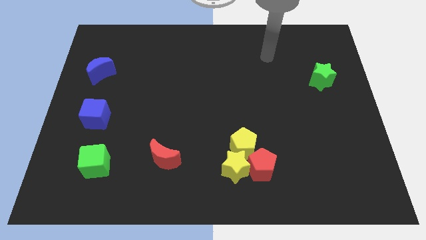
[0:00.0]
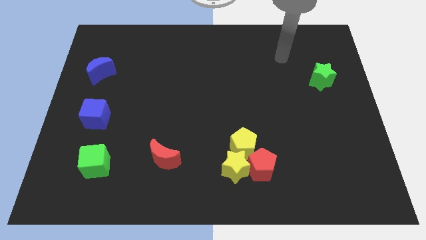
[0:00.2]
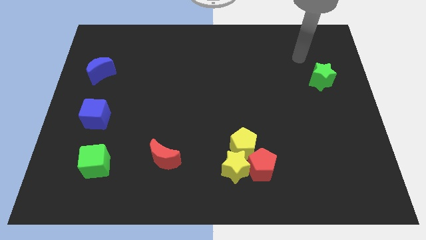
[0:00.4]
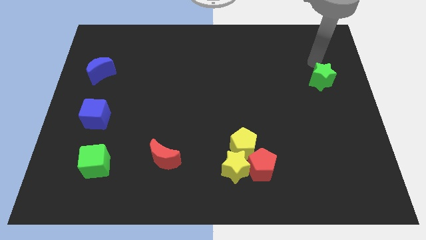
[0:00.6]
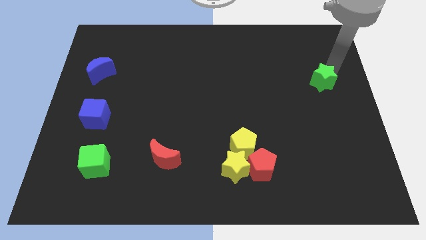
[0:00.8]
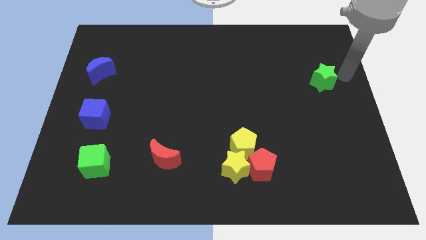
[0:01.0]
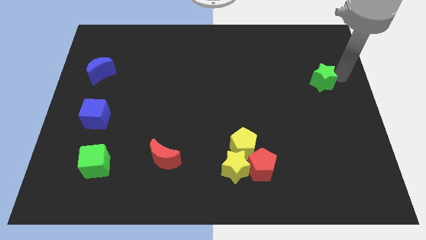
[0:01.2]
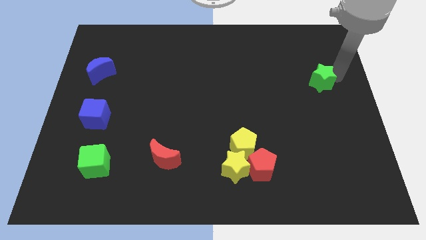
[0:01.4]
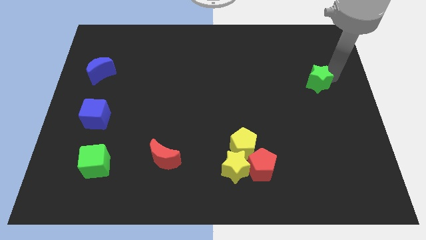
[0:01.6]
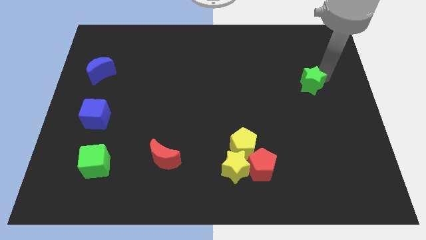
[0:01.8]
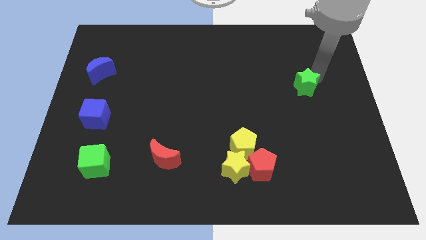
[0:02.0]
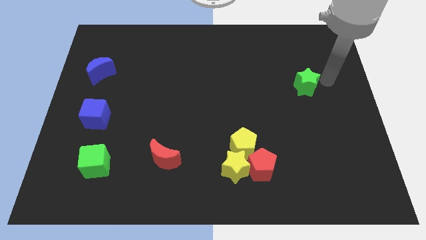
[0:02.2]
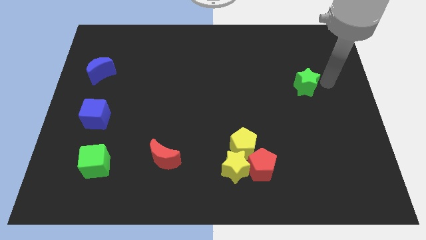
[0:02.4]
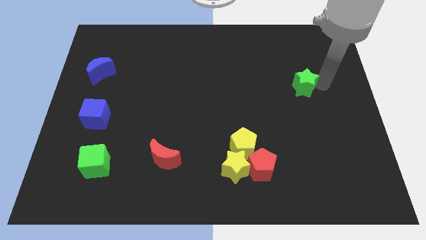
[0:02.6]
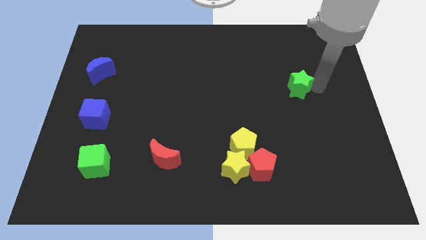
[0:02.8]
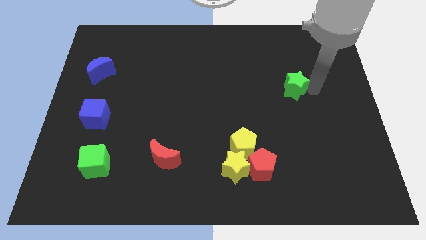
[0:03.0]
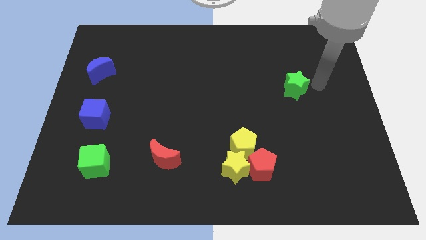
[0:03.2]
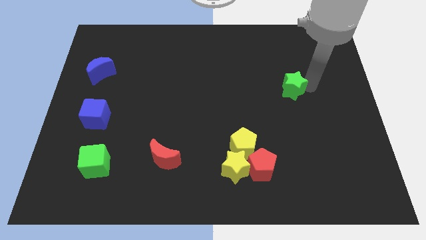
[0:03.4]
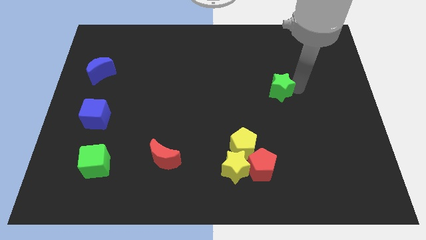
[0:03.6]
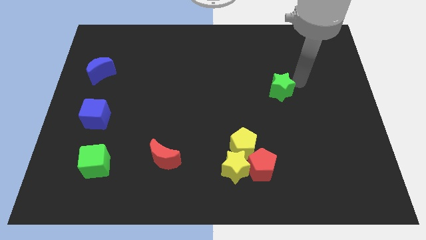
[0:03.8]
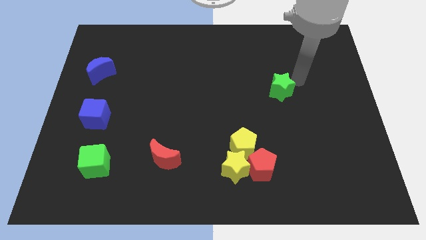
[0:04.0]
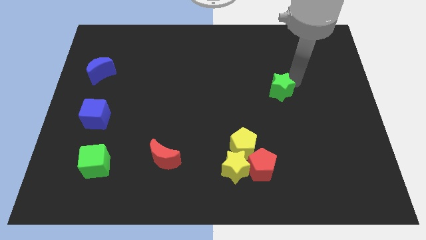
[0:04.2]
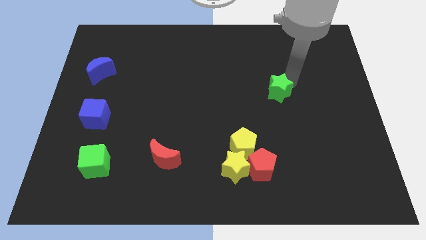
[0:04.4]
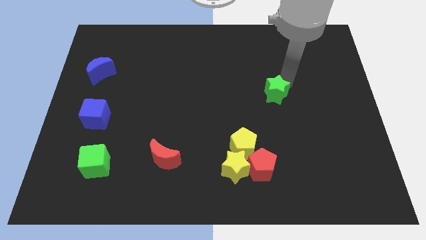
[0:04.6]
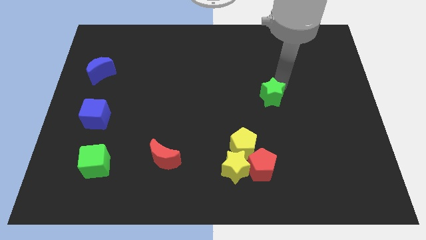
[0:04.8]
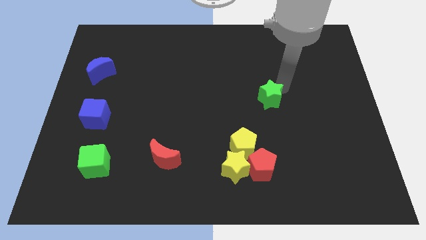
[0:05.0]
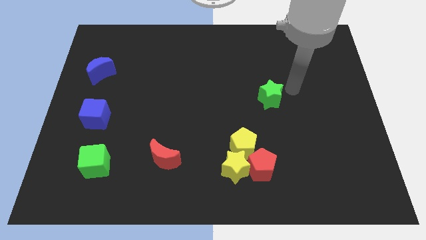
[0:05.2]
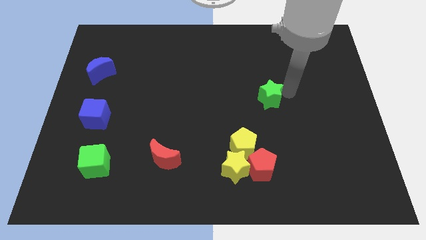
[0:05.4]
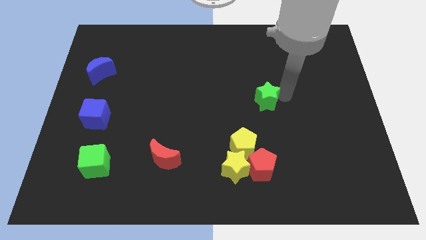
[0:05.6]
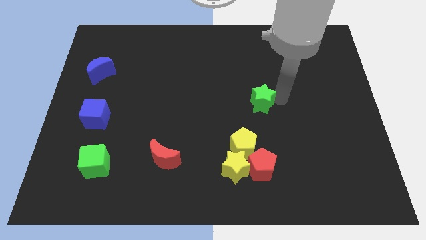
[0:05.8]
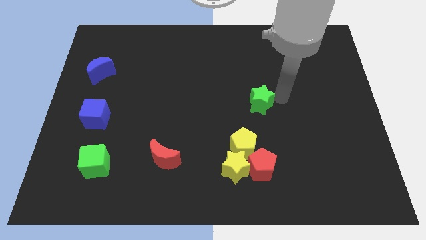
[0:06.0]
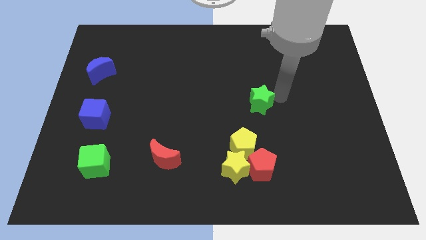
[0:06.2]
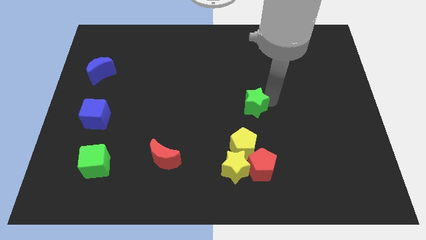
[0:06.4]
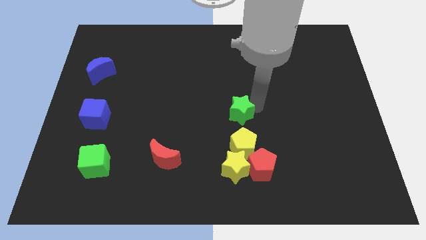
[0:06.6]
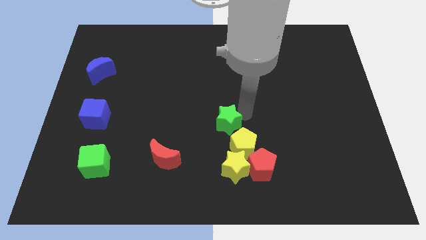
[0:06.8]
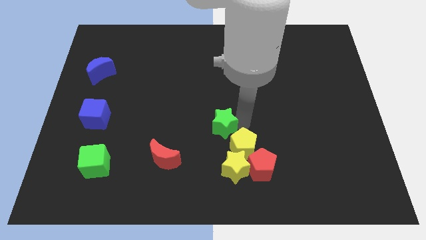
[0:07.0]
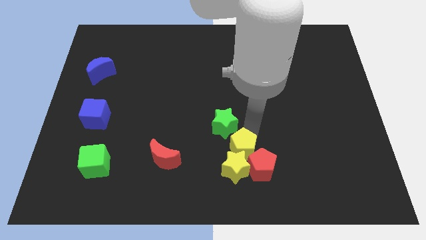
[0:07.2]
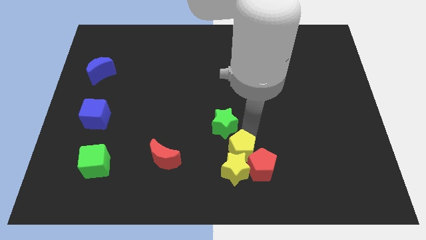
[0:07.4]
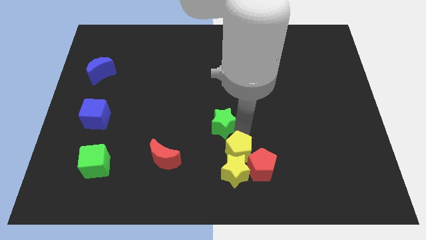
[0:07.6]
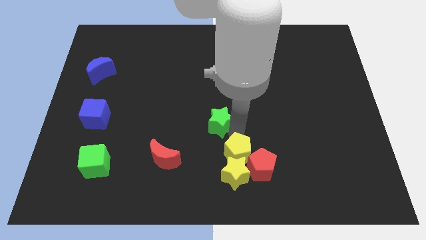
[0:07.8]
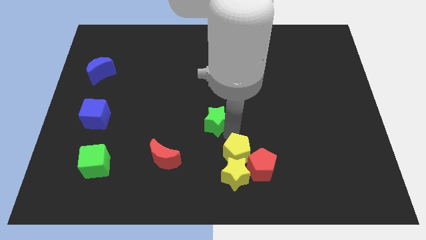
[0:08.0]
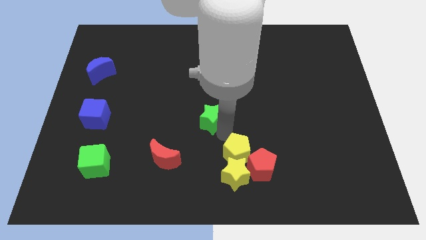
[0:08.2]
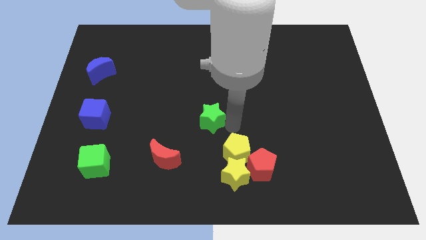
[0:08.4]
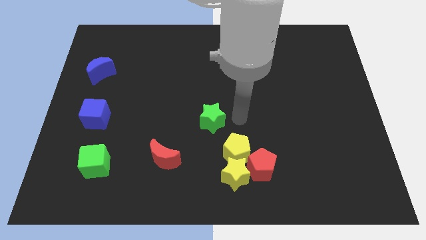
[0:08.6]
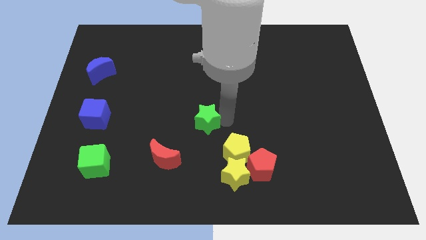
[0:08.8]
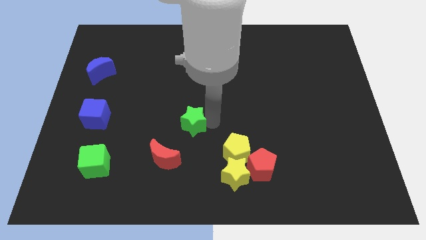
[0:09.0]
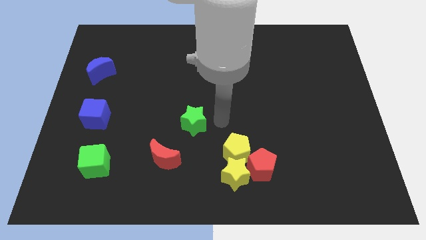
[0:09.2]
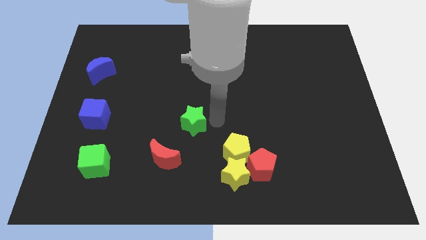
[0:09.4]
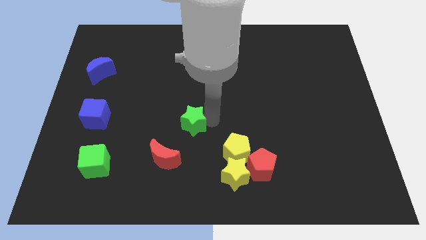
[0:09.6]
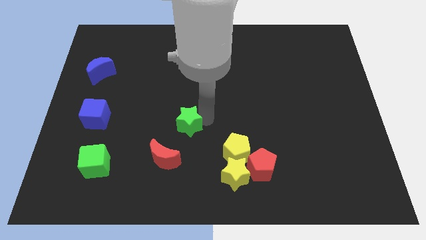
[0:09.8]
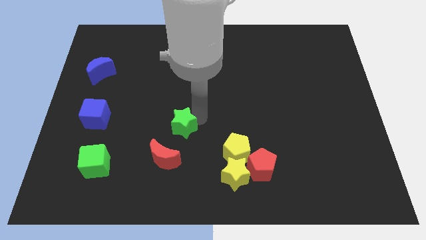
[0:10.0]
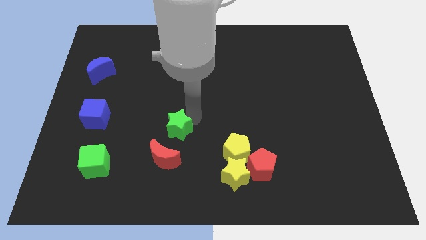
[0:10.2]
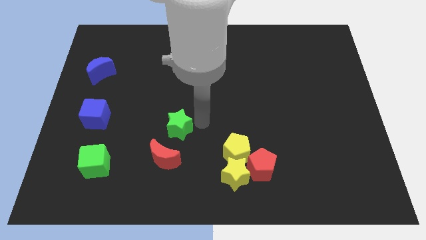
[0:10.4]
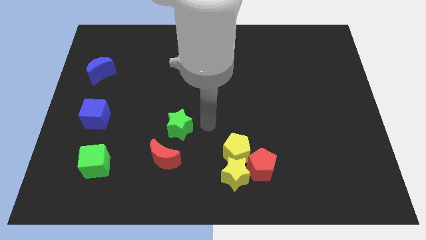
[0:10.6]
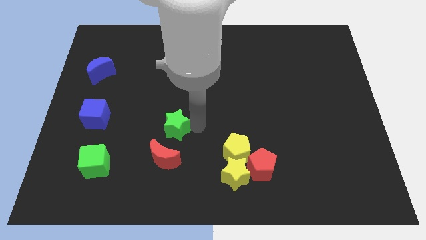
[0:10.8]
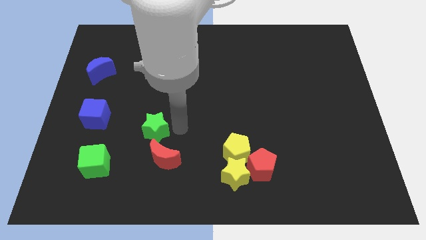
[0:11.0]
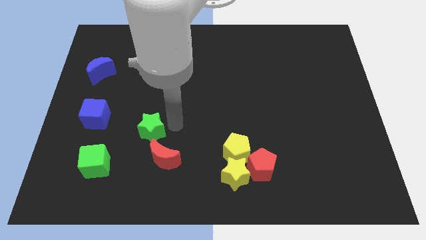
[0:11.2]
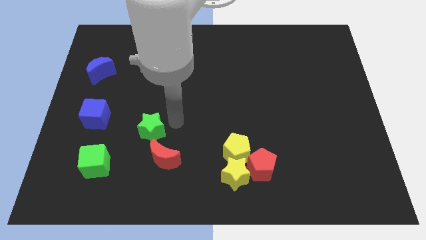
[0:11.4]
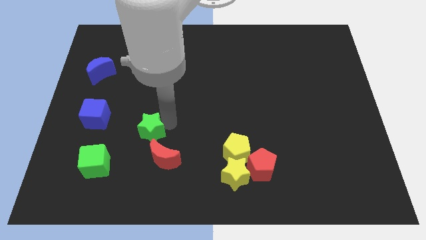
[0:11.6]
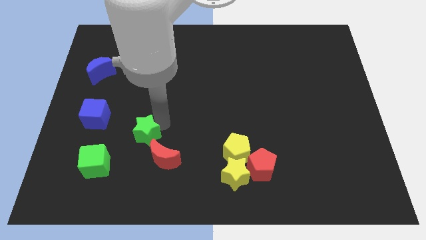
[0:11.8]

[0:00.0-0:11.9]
move the green star diagonally up and to the right of the green cube

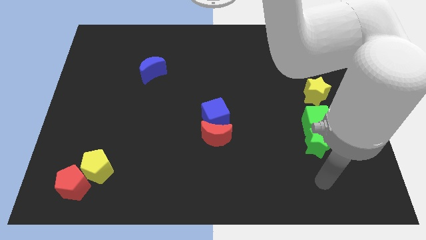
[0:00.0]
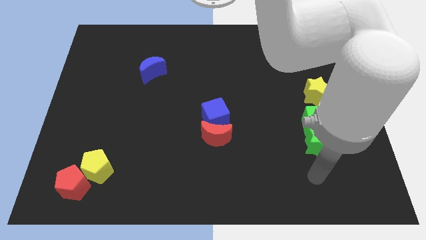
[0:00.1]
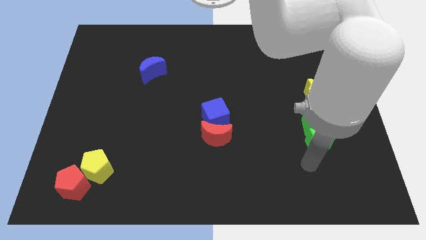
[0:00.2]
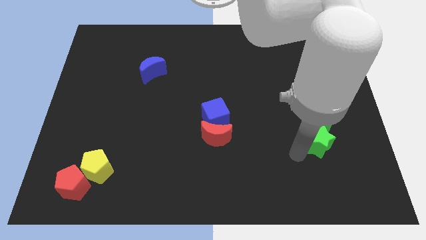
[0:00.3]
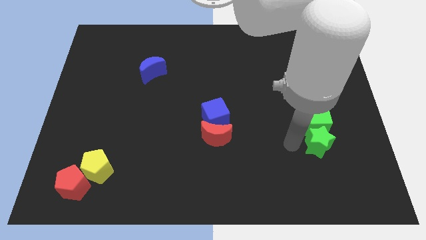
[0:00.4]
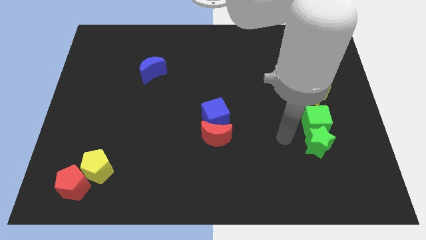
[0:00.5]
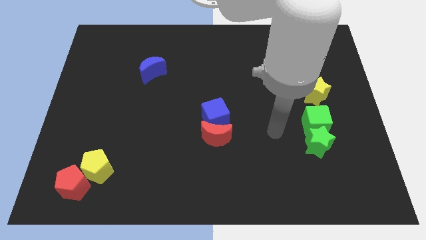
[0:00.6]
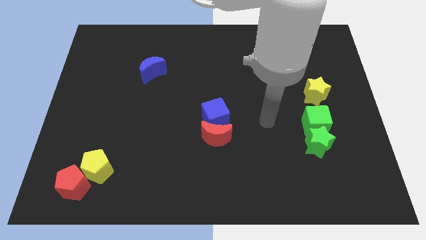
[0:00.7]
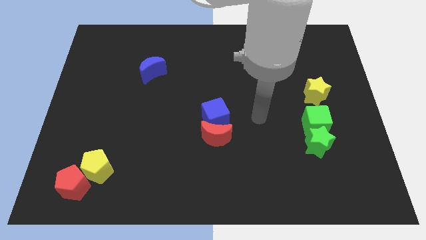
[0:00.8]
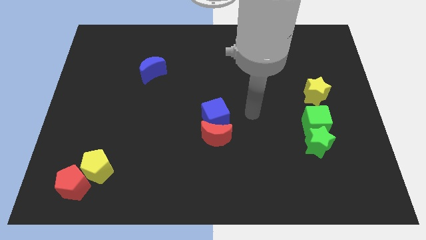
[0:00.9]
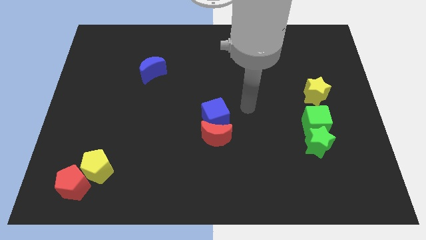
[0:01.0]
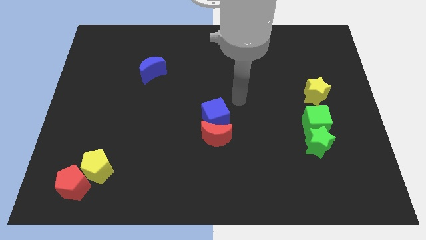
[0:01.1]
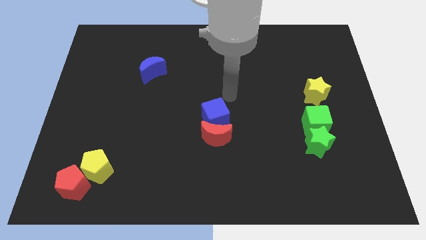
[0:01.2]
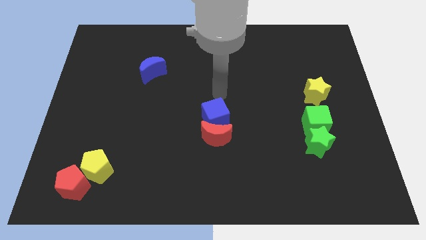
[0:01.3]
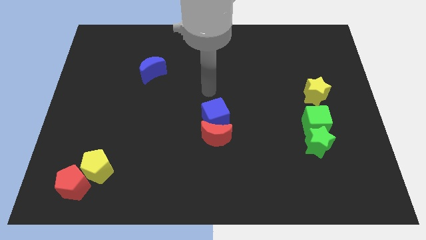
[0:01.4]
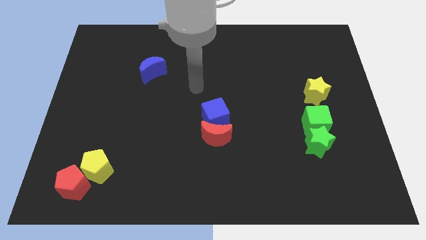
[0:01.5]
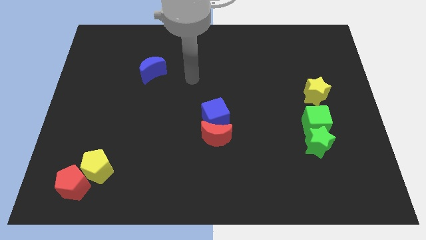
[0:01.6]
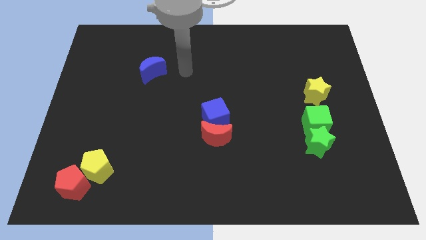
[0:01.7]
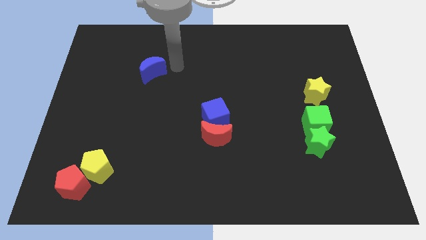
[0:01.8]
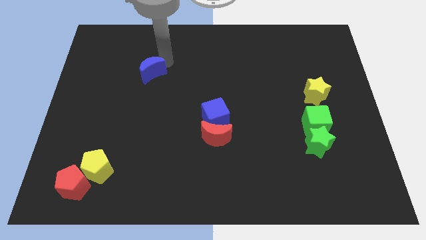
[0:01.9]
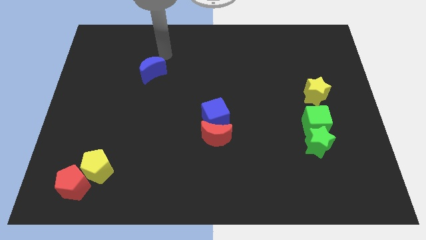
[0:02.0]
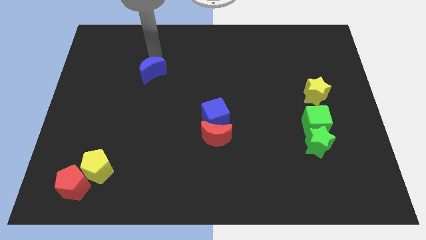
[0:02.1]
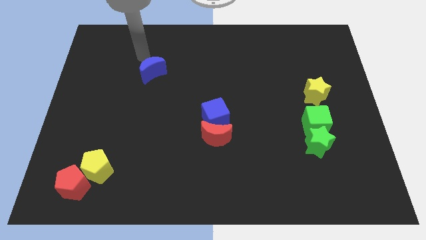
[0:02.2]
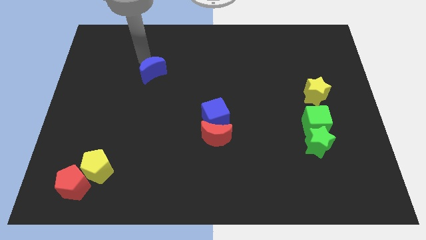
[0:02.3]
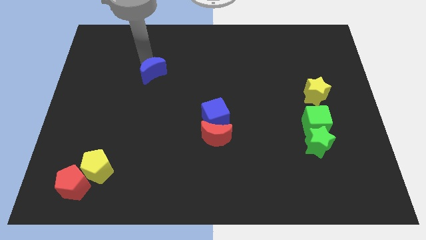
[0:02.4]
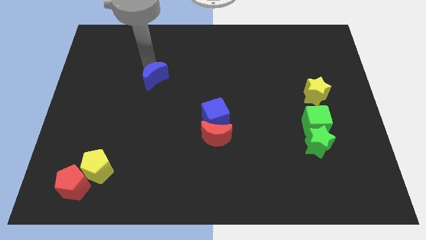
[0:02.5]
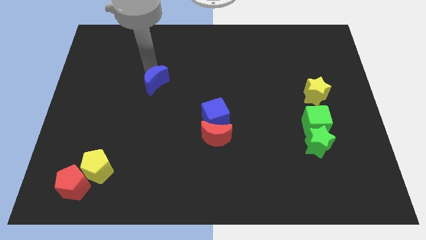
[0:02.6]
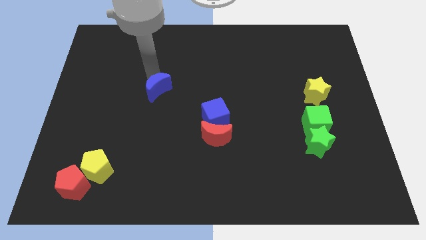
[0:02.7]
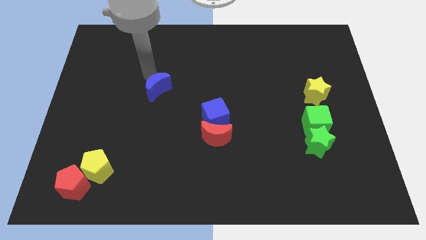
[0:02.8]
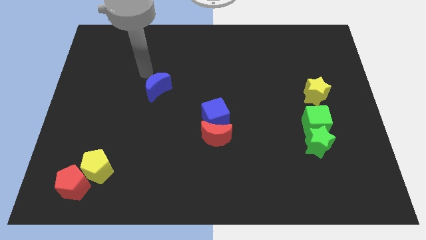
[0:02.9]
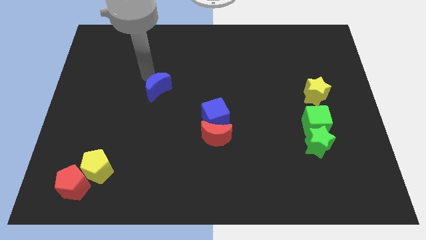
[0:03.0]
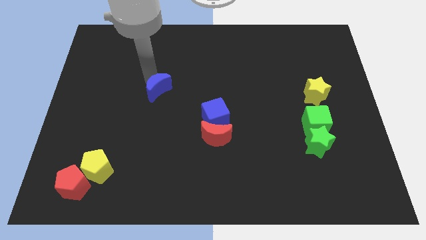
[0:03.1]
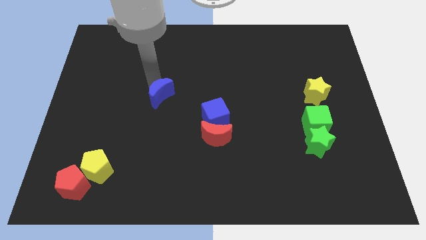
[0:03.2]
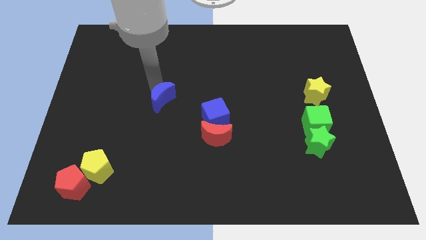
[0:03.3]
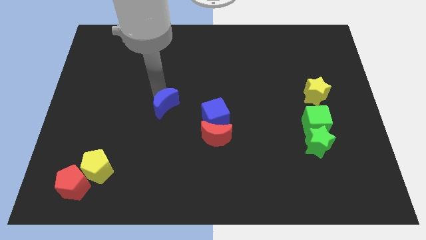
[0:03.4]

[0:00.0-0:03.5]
push the blue moon left of the blue cube
